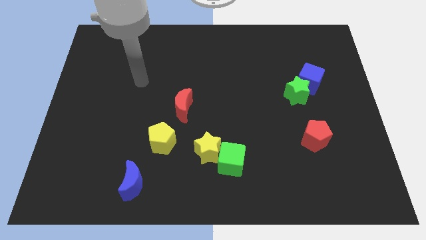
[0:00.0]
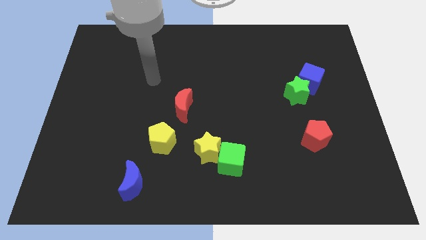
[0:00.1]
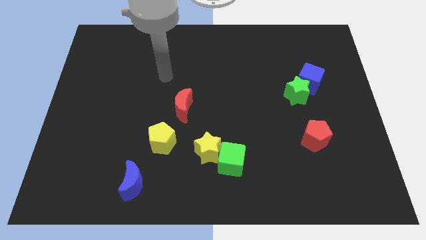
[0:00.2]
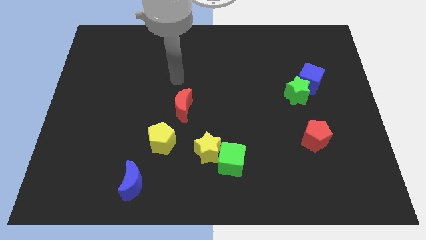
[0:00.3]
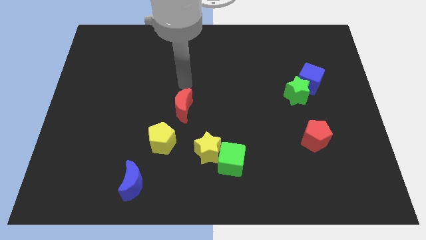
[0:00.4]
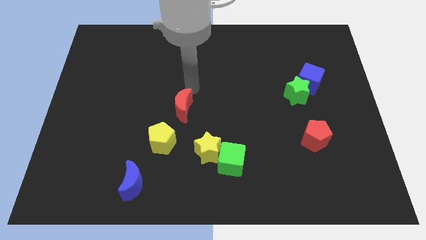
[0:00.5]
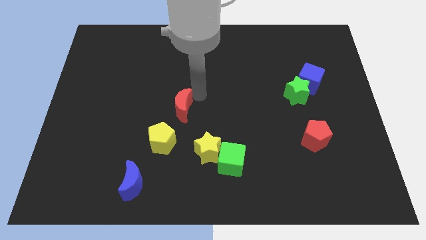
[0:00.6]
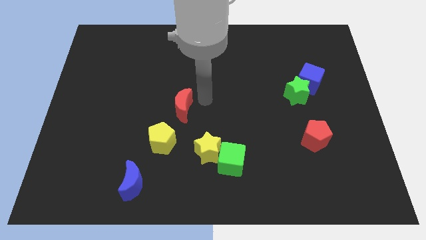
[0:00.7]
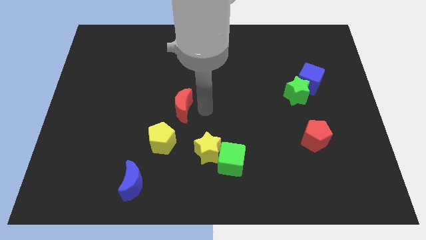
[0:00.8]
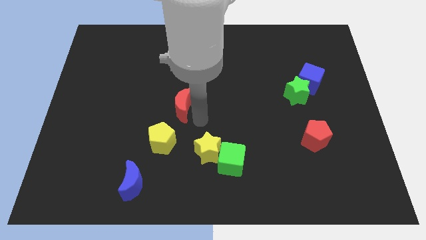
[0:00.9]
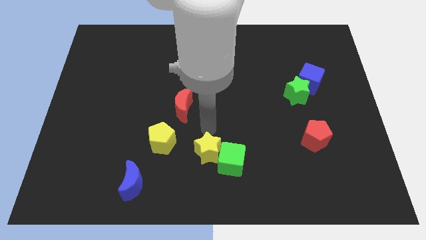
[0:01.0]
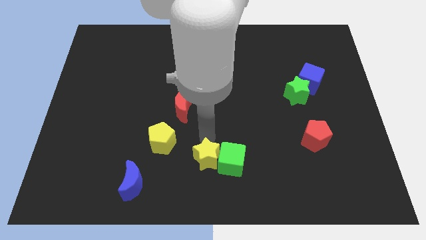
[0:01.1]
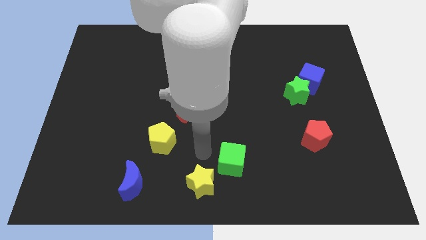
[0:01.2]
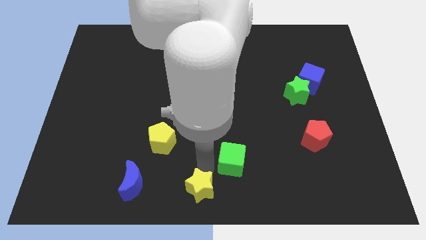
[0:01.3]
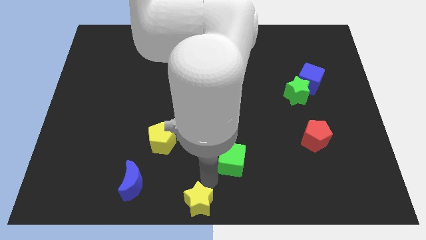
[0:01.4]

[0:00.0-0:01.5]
move the green cube away from the yellow star

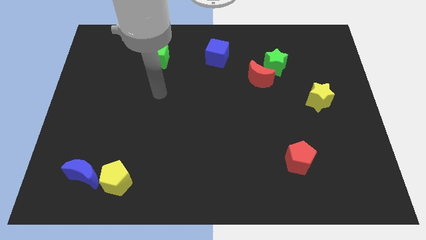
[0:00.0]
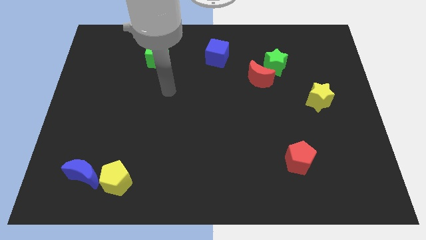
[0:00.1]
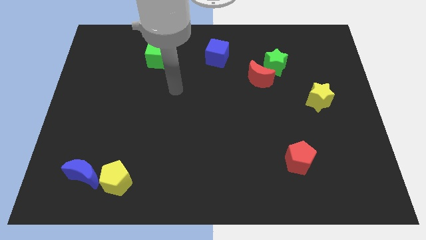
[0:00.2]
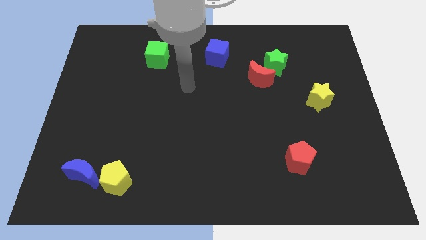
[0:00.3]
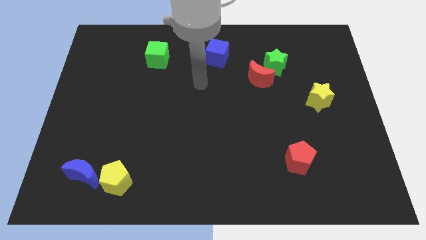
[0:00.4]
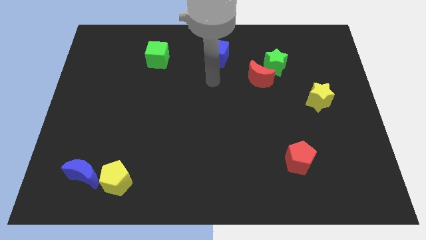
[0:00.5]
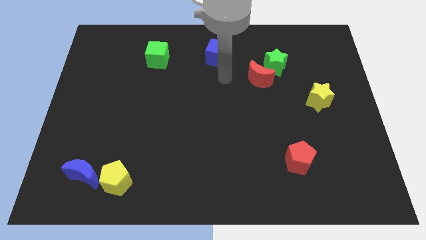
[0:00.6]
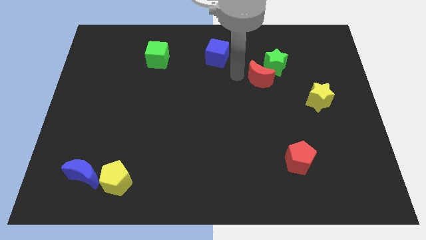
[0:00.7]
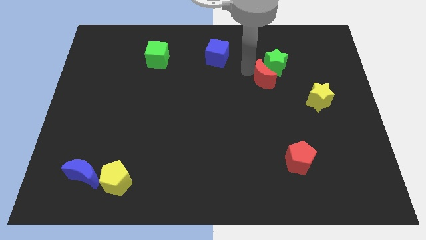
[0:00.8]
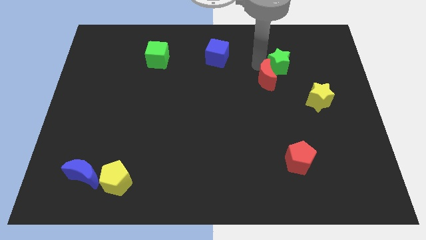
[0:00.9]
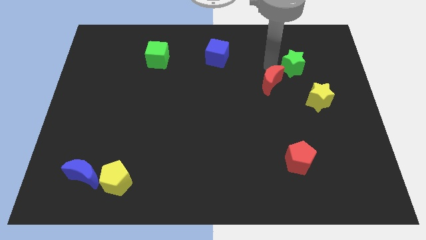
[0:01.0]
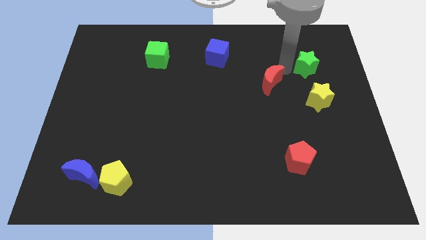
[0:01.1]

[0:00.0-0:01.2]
move the red moon away from the green star

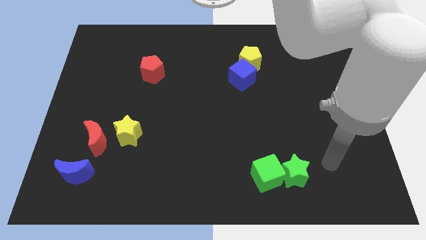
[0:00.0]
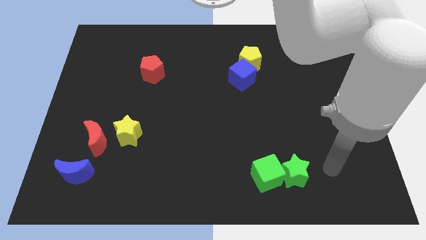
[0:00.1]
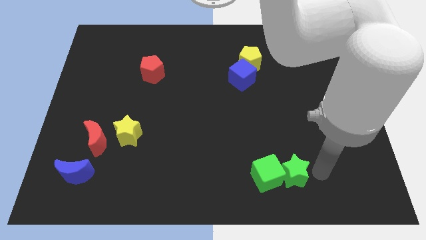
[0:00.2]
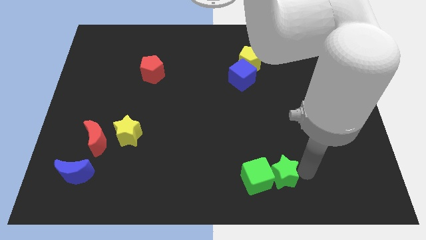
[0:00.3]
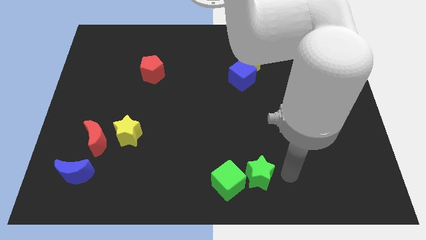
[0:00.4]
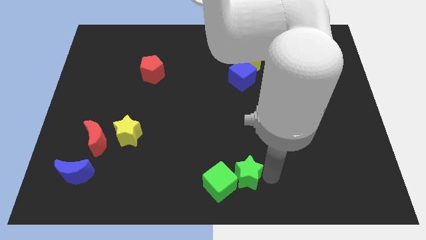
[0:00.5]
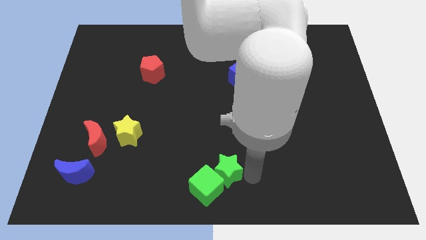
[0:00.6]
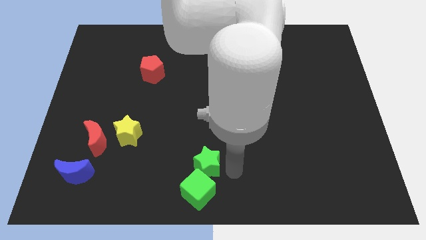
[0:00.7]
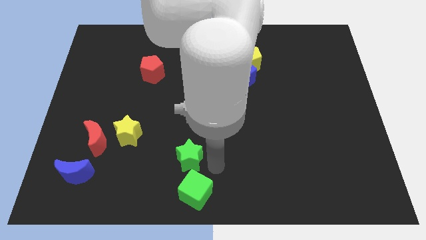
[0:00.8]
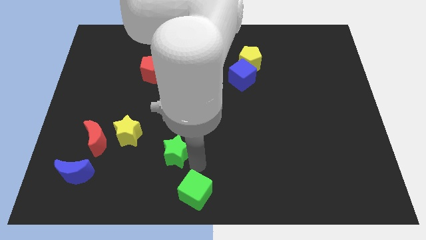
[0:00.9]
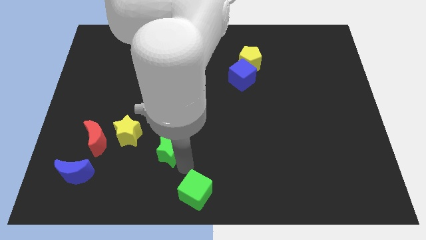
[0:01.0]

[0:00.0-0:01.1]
move the green cube away from the green star

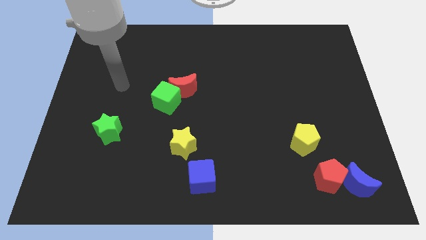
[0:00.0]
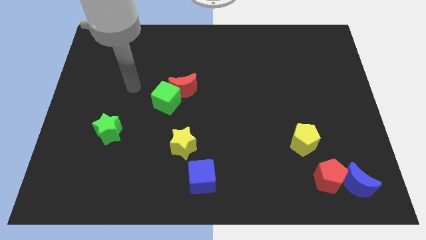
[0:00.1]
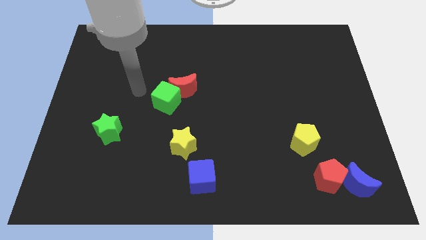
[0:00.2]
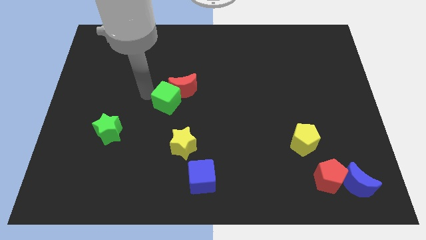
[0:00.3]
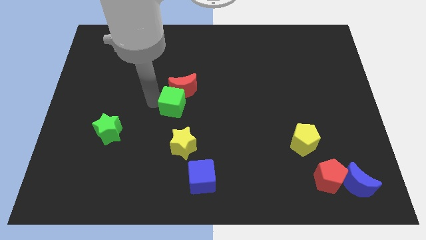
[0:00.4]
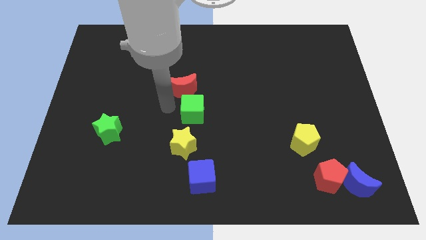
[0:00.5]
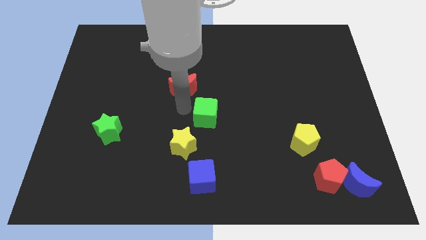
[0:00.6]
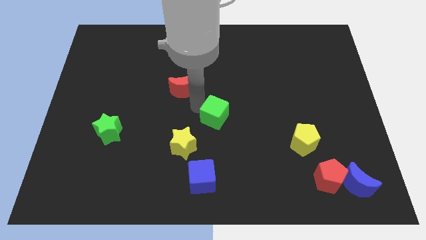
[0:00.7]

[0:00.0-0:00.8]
separate the red moon from the green cube

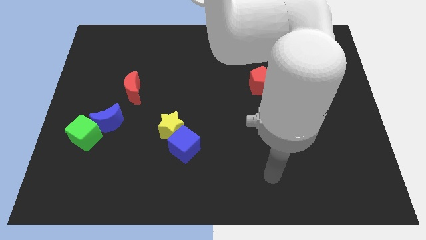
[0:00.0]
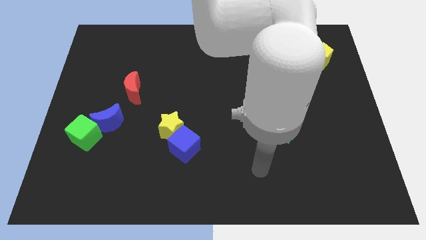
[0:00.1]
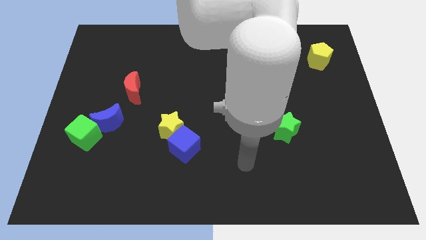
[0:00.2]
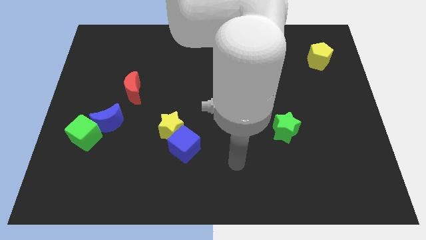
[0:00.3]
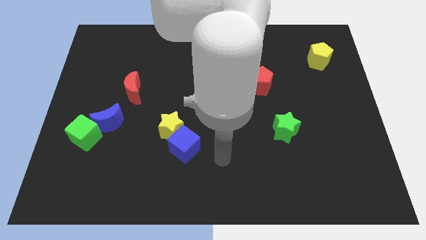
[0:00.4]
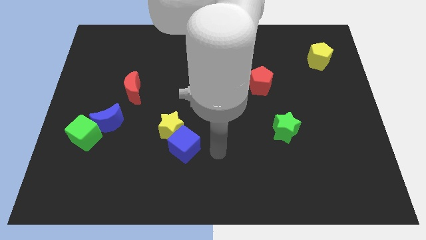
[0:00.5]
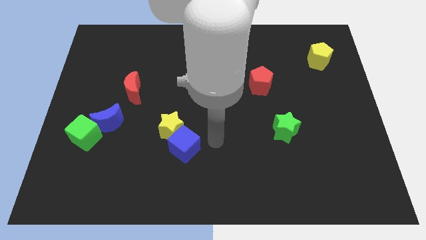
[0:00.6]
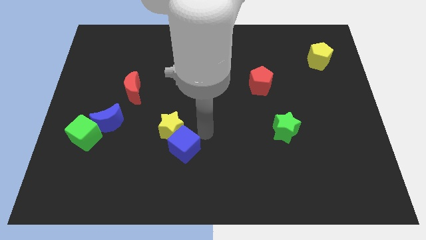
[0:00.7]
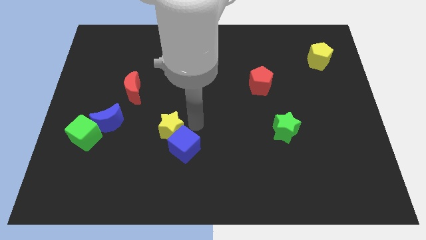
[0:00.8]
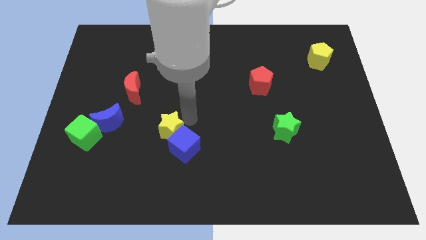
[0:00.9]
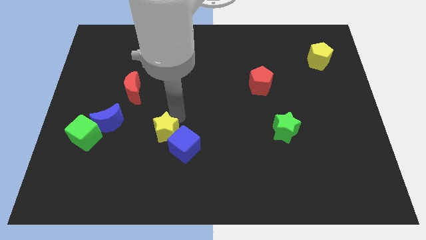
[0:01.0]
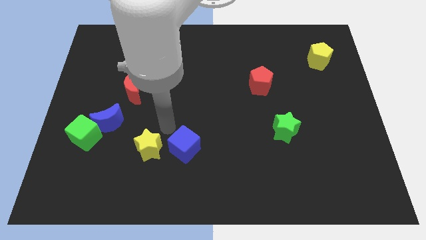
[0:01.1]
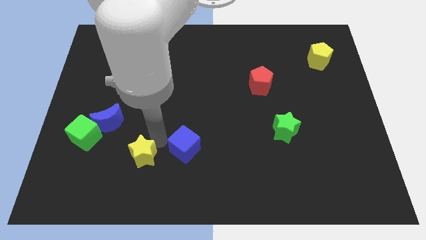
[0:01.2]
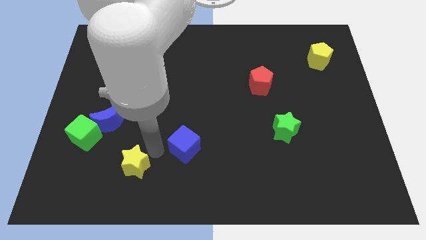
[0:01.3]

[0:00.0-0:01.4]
separate the blue cube from the yellow star

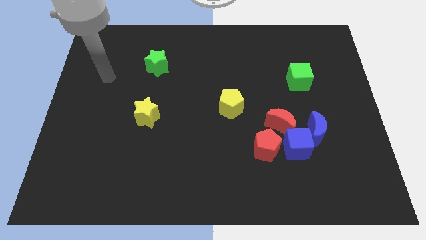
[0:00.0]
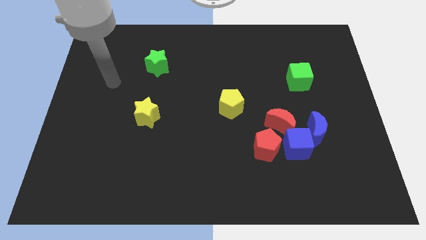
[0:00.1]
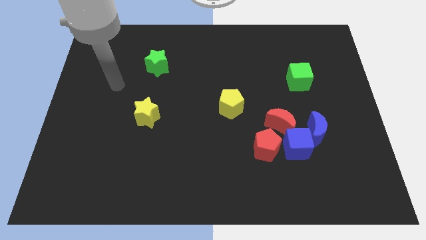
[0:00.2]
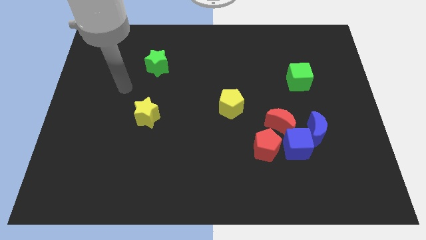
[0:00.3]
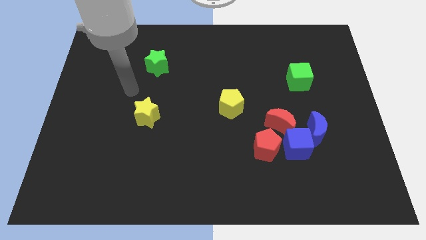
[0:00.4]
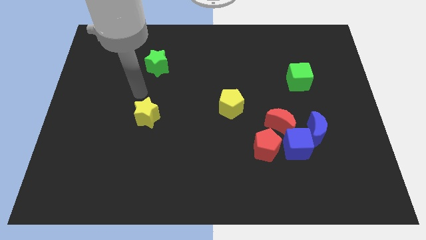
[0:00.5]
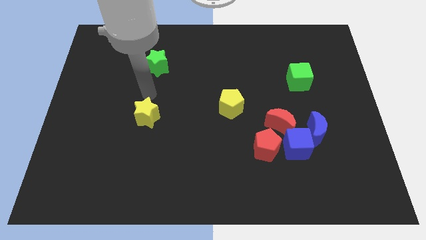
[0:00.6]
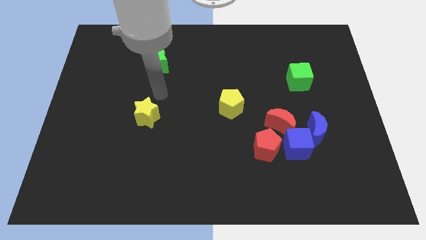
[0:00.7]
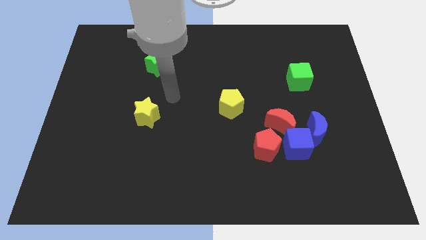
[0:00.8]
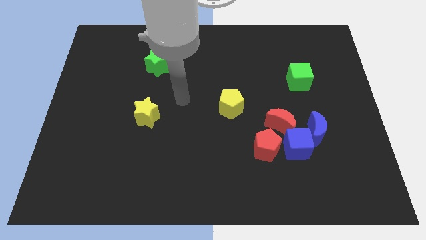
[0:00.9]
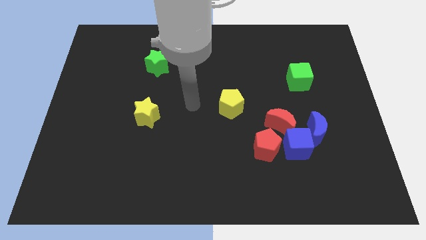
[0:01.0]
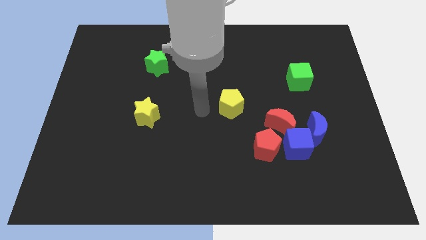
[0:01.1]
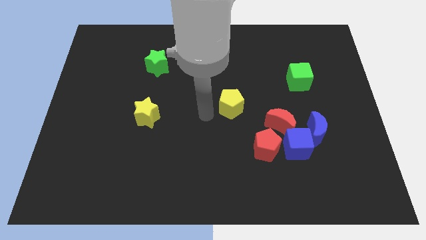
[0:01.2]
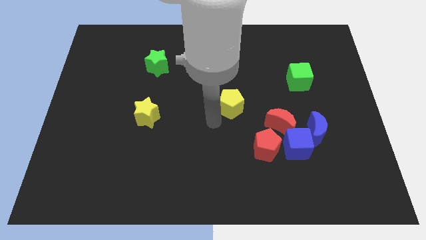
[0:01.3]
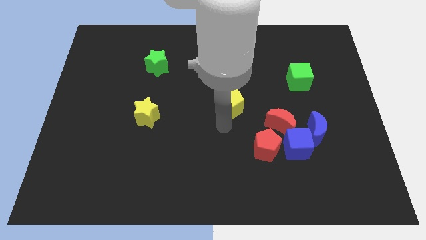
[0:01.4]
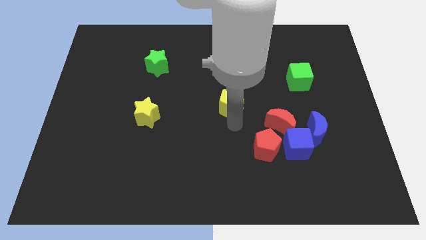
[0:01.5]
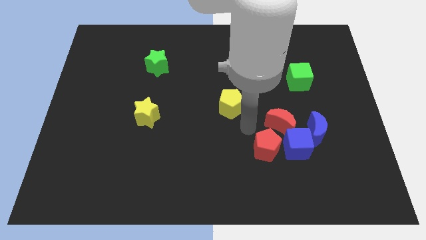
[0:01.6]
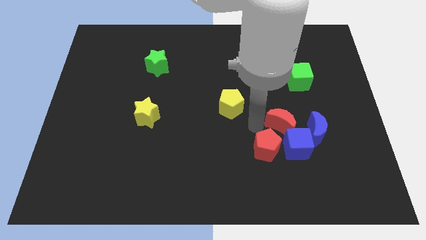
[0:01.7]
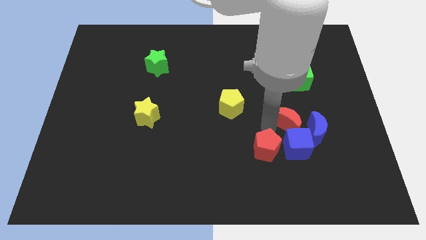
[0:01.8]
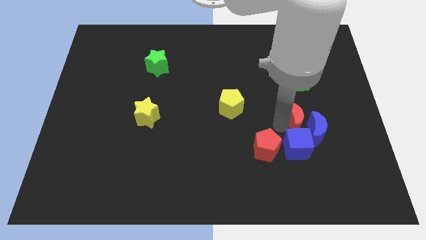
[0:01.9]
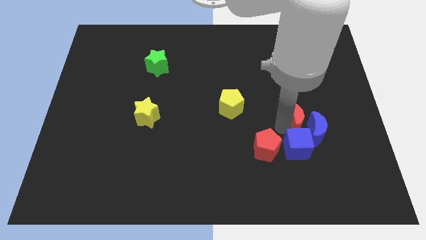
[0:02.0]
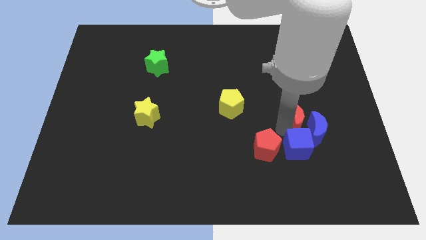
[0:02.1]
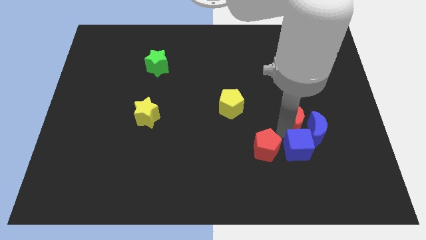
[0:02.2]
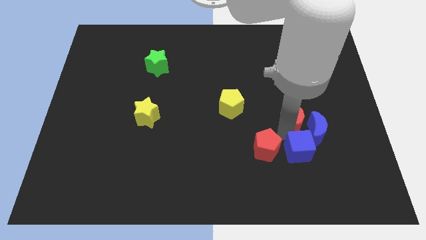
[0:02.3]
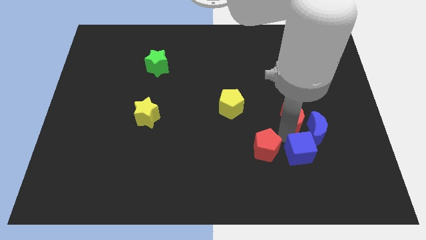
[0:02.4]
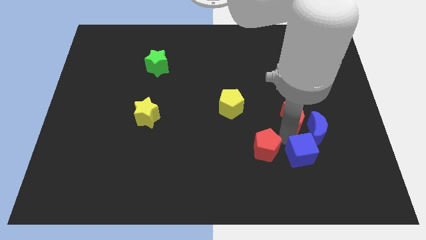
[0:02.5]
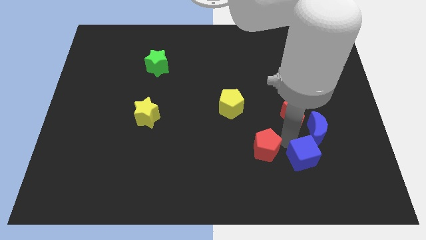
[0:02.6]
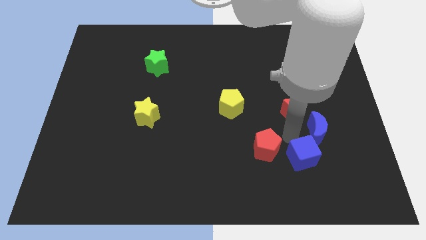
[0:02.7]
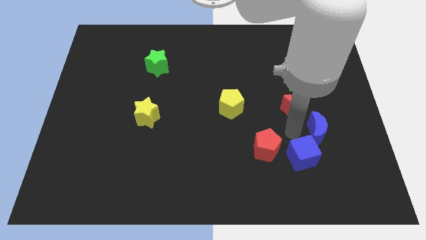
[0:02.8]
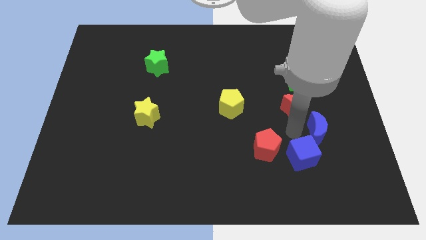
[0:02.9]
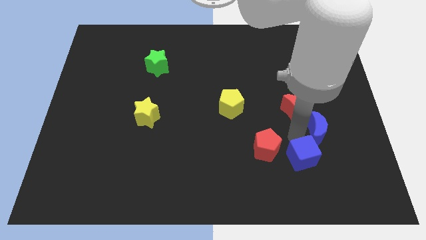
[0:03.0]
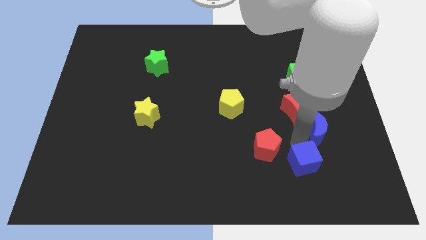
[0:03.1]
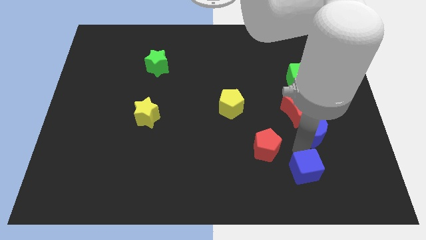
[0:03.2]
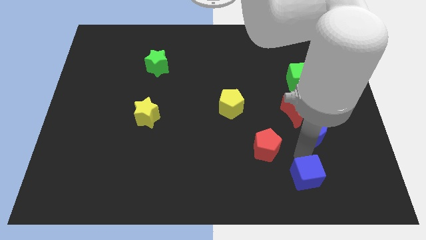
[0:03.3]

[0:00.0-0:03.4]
move the blue cube away from the clump
